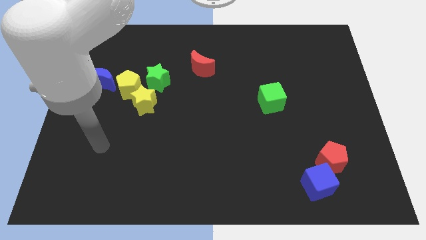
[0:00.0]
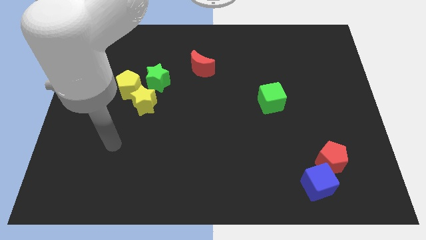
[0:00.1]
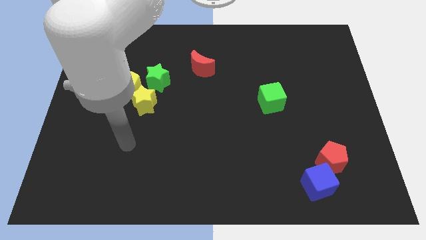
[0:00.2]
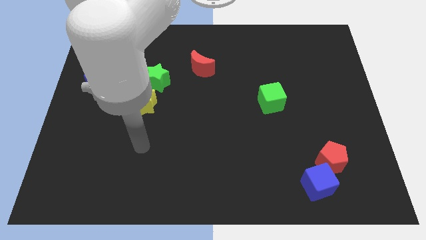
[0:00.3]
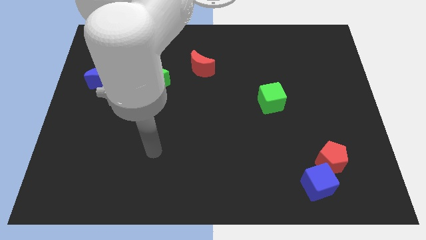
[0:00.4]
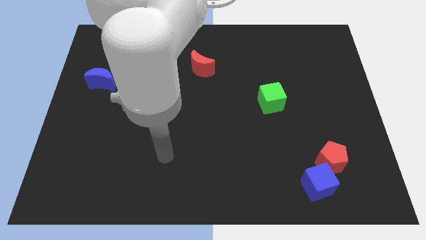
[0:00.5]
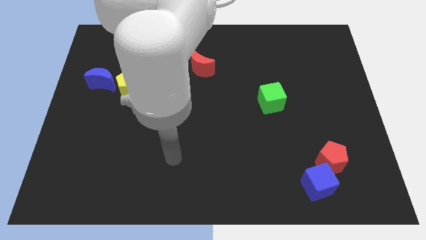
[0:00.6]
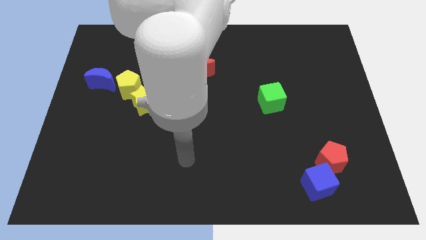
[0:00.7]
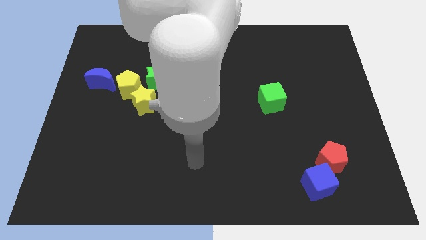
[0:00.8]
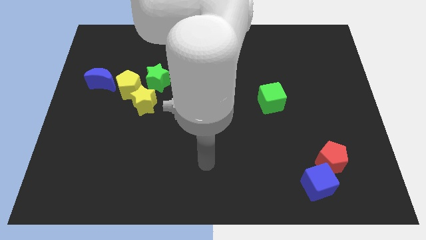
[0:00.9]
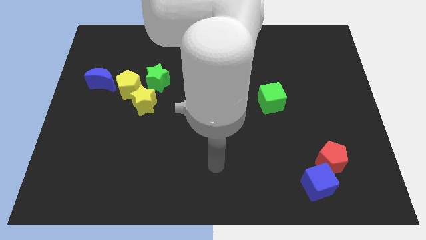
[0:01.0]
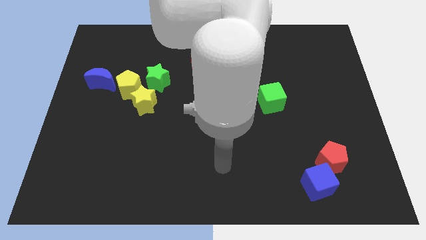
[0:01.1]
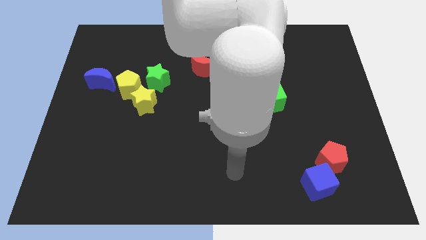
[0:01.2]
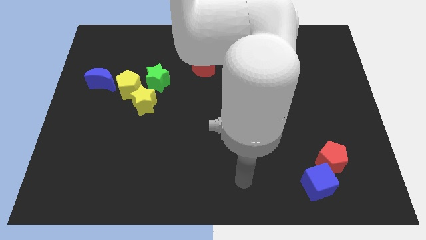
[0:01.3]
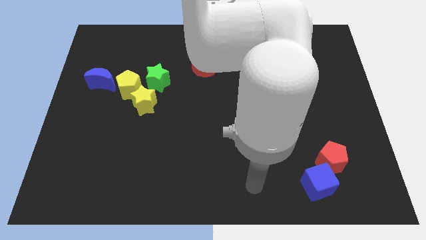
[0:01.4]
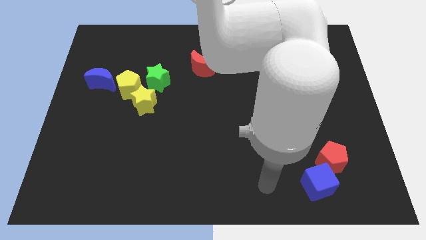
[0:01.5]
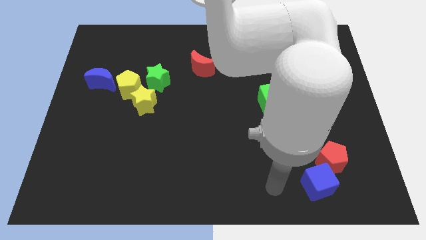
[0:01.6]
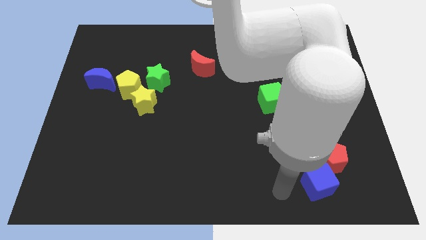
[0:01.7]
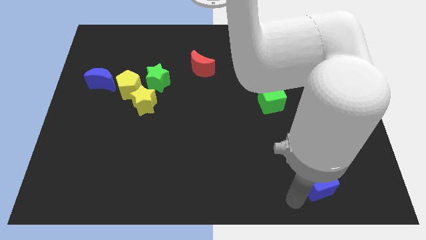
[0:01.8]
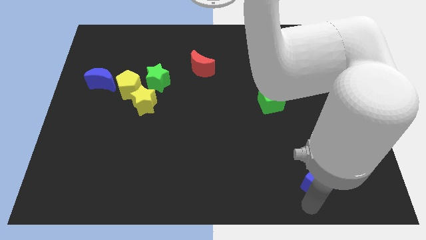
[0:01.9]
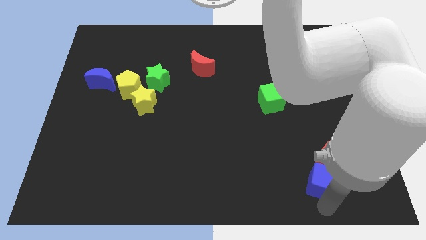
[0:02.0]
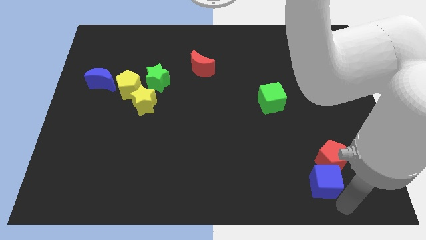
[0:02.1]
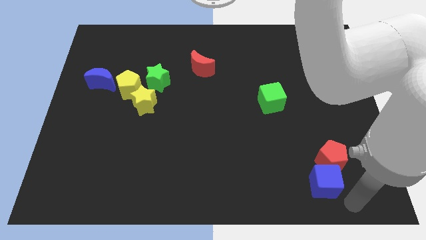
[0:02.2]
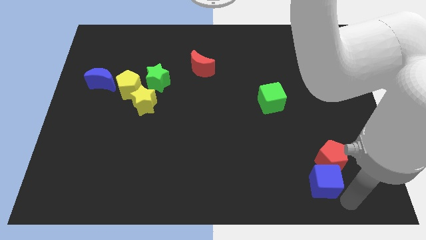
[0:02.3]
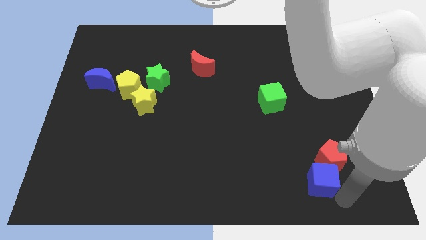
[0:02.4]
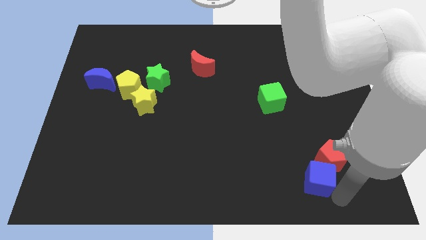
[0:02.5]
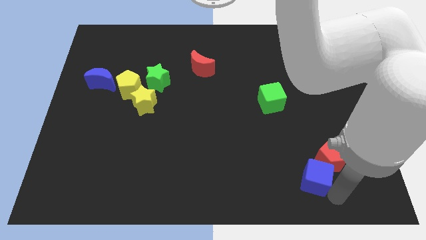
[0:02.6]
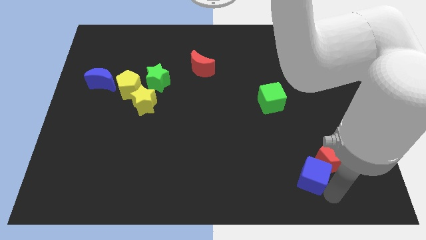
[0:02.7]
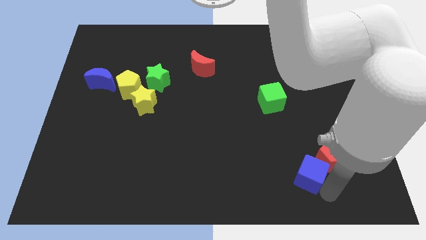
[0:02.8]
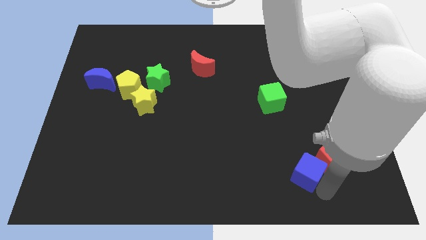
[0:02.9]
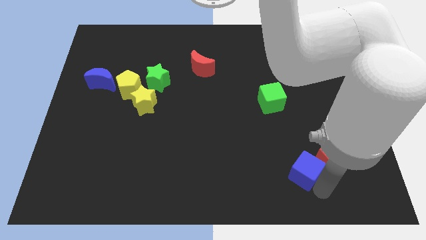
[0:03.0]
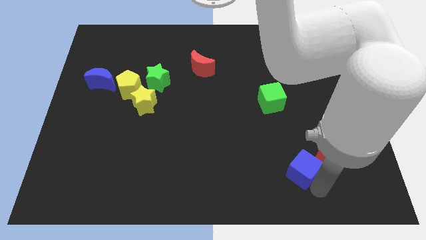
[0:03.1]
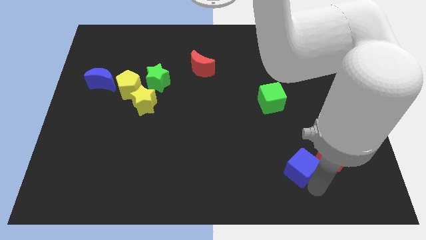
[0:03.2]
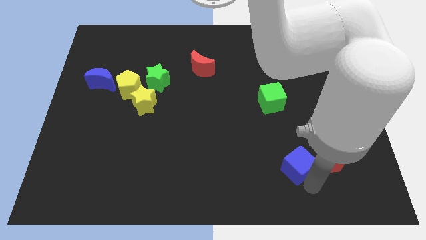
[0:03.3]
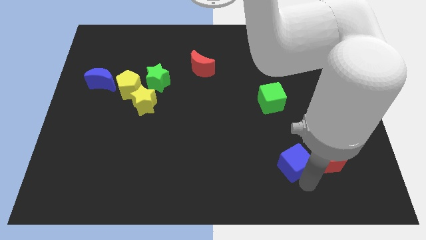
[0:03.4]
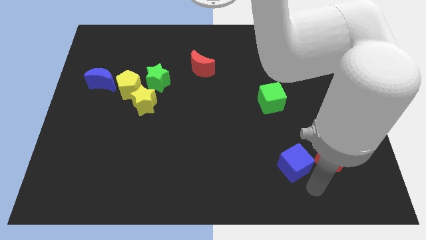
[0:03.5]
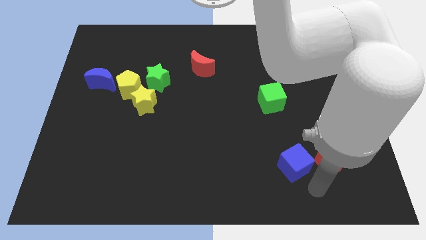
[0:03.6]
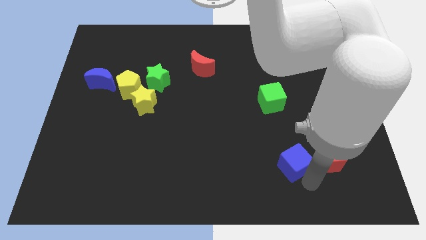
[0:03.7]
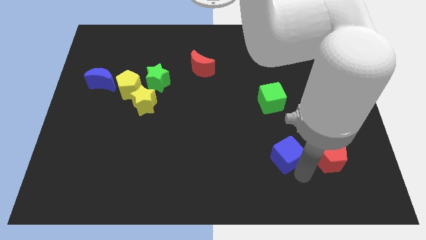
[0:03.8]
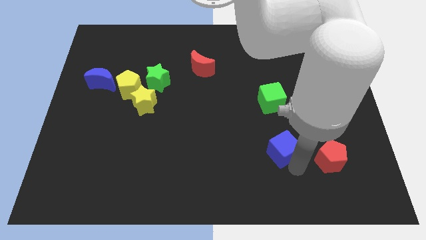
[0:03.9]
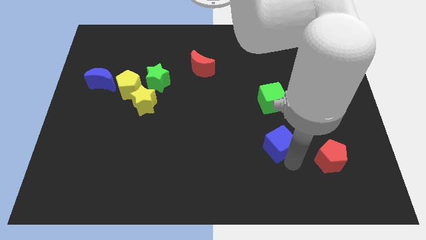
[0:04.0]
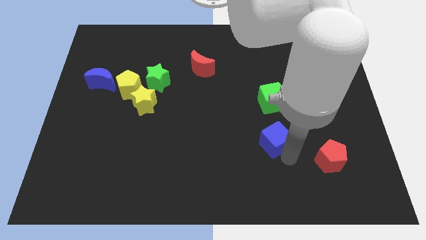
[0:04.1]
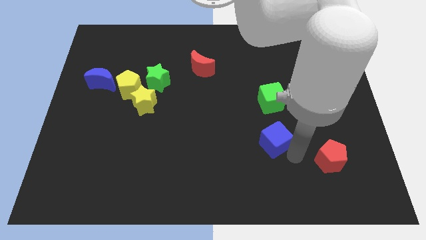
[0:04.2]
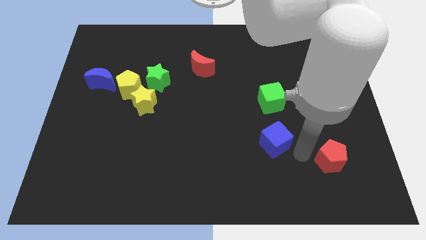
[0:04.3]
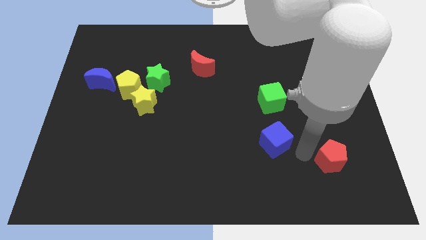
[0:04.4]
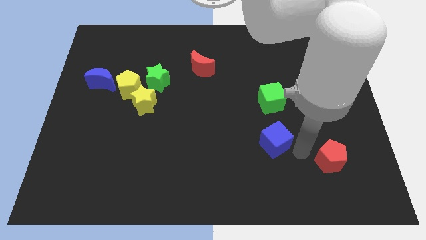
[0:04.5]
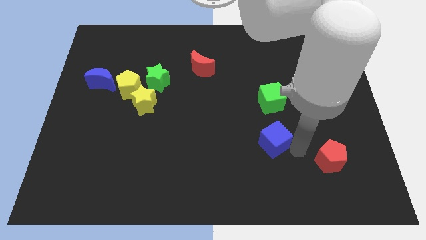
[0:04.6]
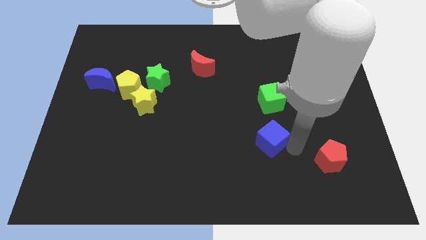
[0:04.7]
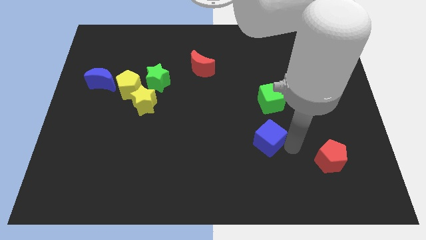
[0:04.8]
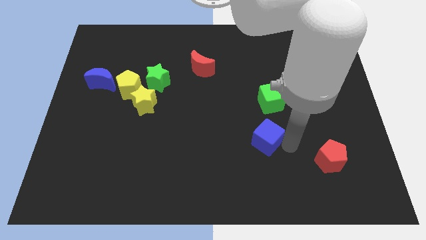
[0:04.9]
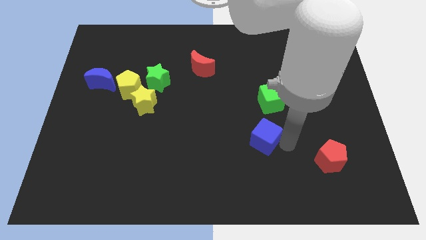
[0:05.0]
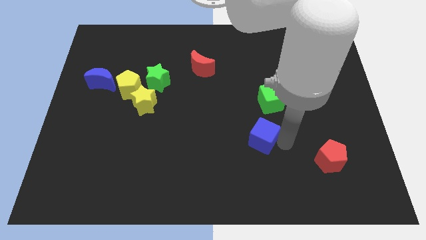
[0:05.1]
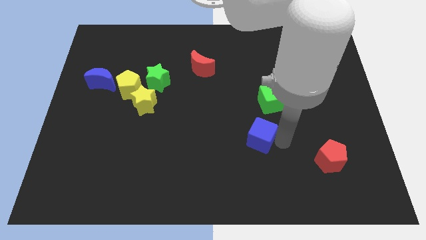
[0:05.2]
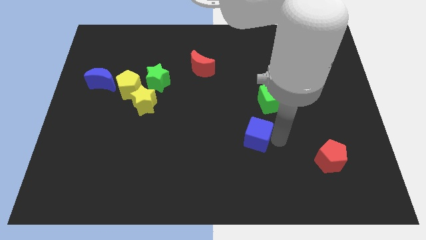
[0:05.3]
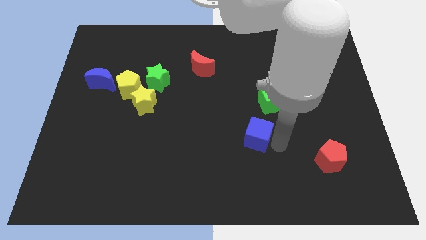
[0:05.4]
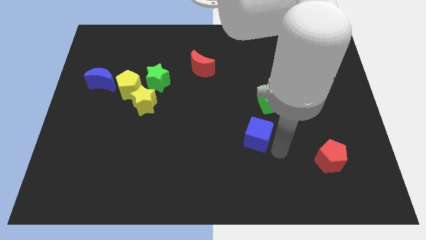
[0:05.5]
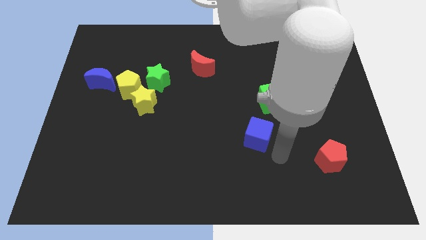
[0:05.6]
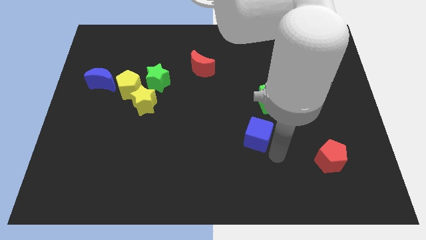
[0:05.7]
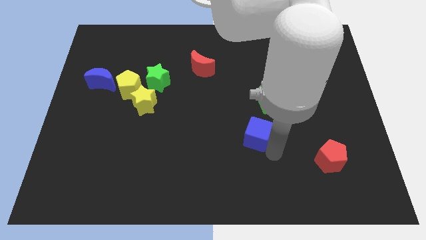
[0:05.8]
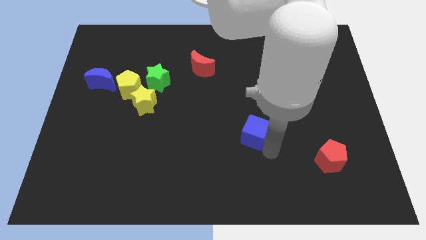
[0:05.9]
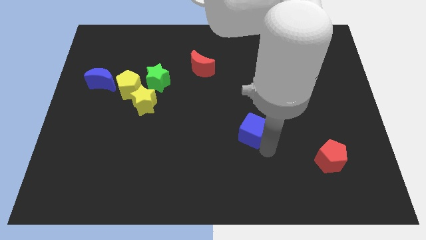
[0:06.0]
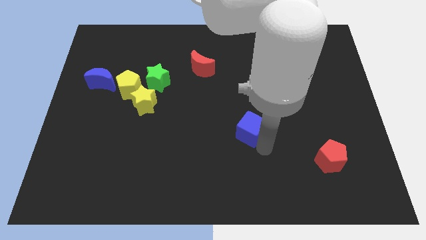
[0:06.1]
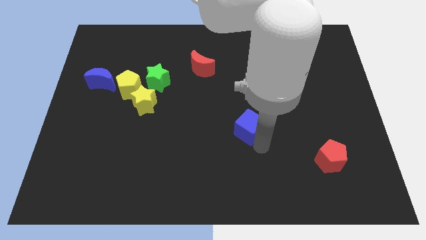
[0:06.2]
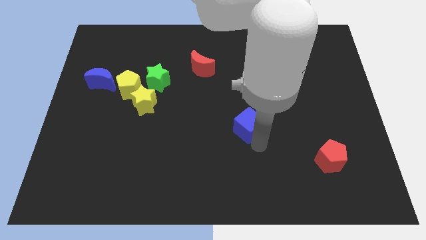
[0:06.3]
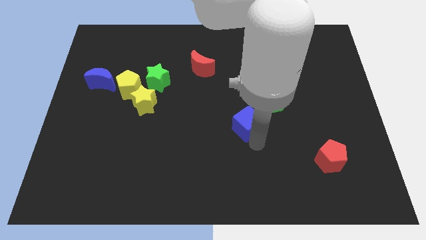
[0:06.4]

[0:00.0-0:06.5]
move the blue cube diagonally upwards and to the left

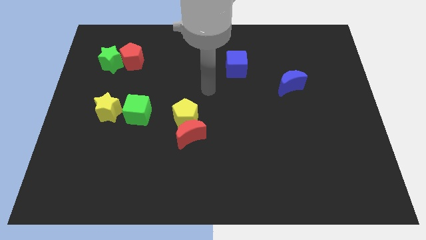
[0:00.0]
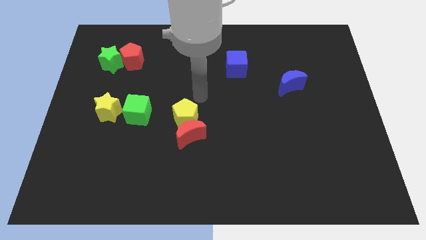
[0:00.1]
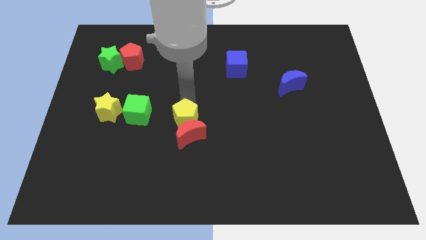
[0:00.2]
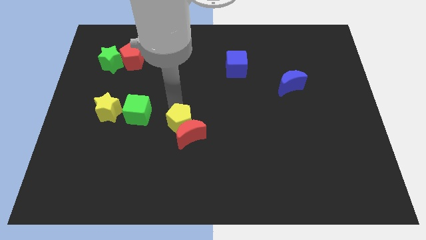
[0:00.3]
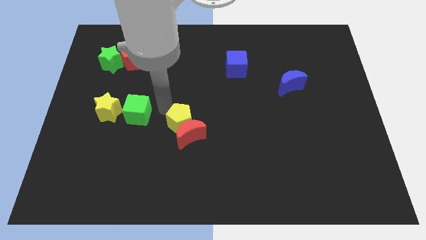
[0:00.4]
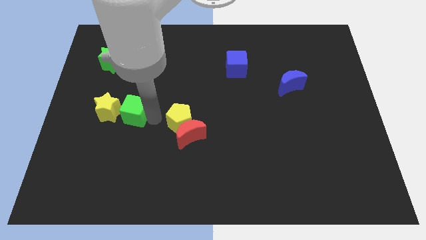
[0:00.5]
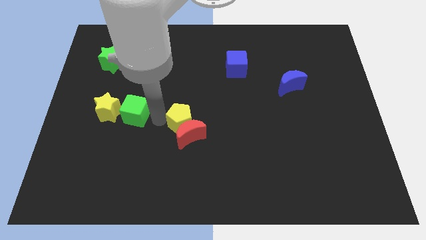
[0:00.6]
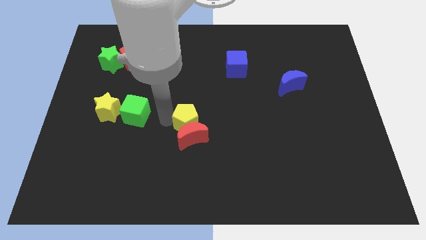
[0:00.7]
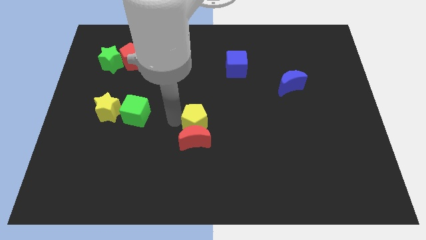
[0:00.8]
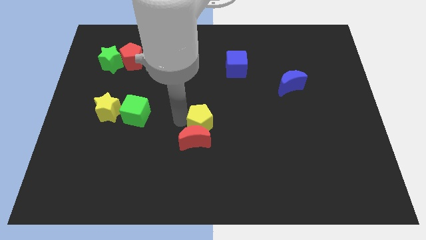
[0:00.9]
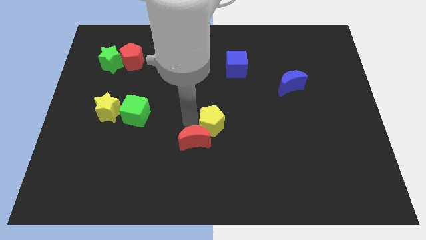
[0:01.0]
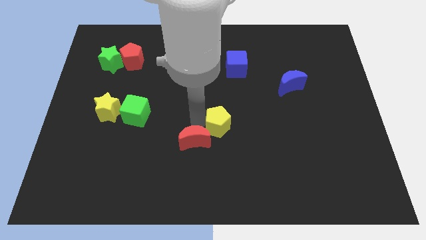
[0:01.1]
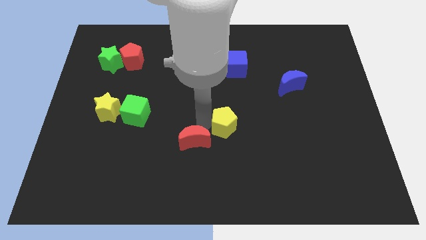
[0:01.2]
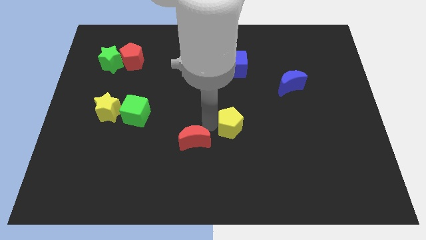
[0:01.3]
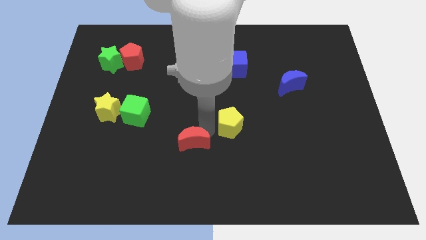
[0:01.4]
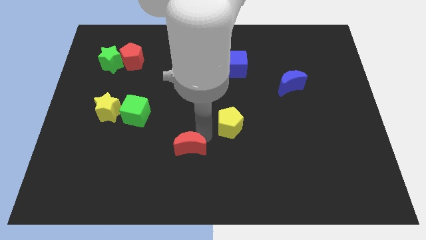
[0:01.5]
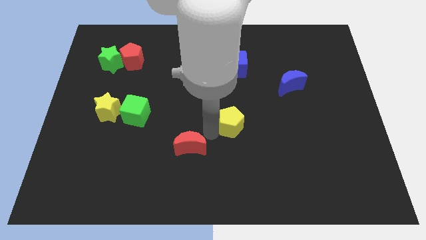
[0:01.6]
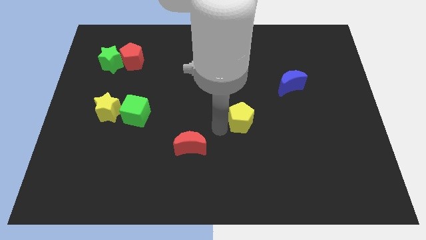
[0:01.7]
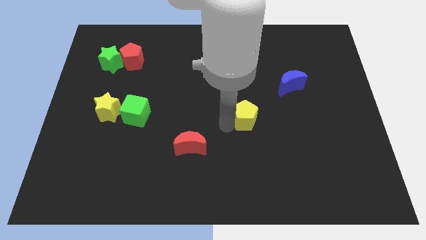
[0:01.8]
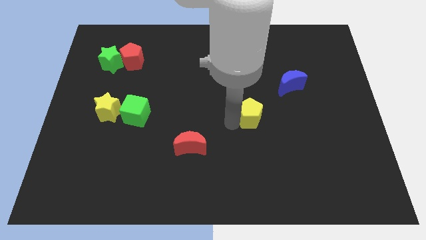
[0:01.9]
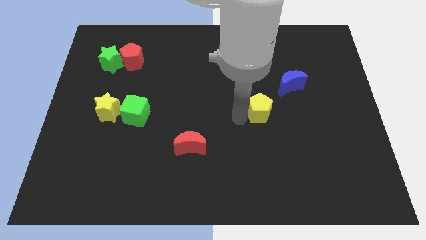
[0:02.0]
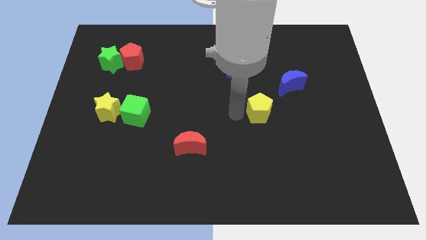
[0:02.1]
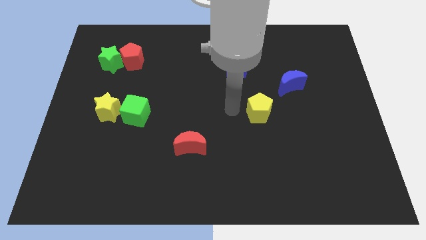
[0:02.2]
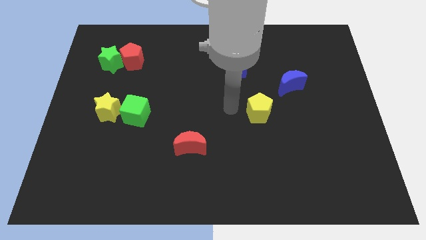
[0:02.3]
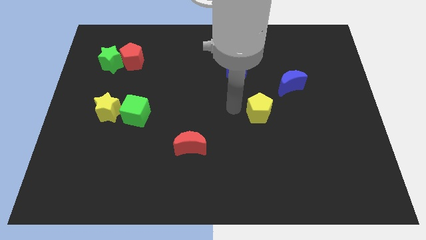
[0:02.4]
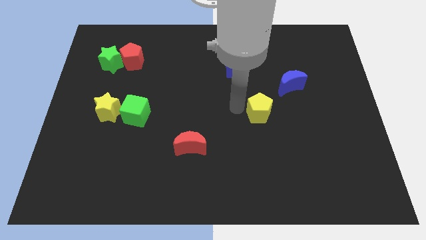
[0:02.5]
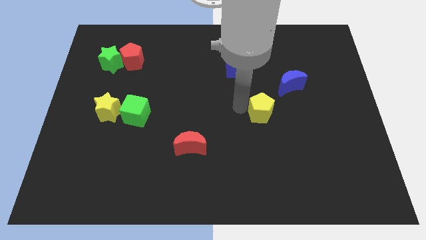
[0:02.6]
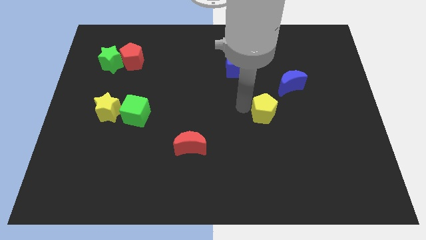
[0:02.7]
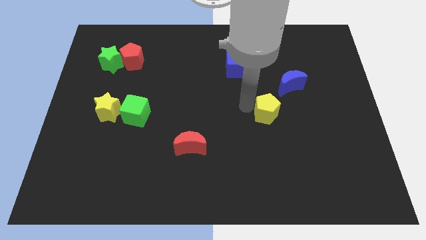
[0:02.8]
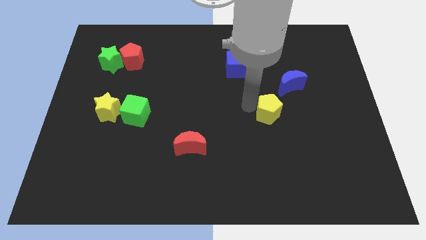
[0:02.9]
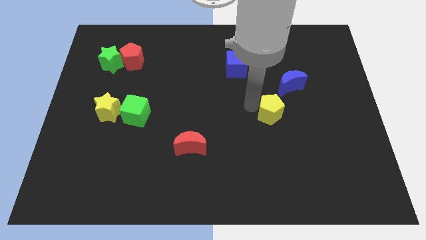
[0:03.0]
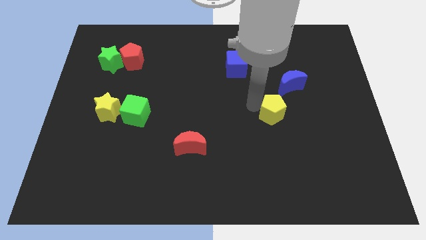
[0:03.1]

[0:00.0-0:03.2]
slide the yellow pentagon to the right
